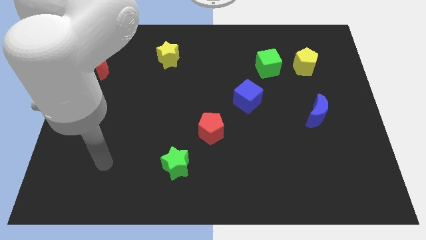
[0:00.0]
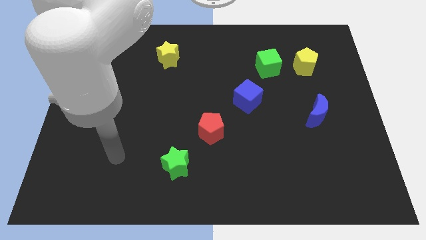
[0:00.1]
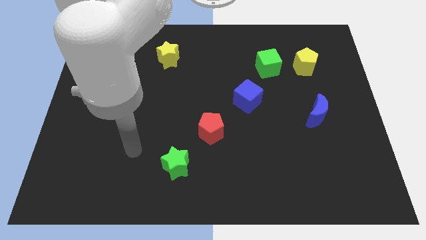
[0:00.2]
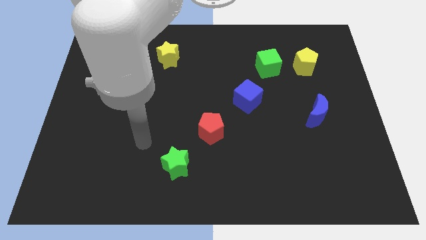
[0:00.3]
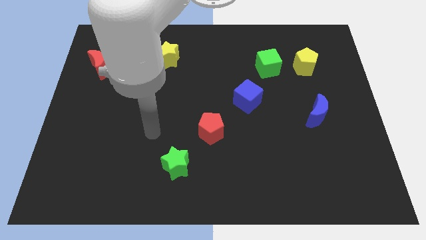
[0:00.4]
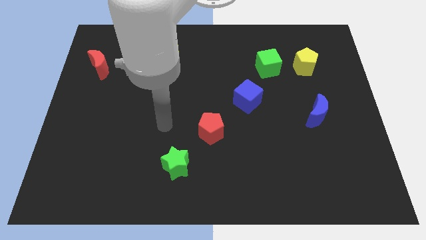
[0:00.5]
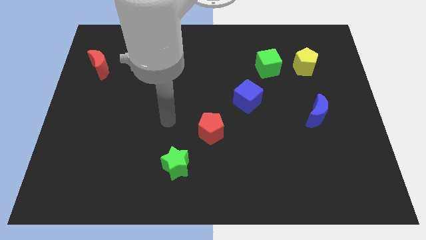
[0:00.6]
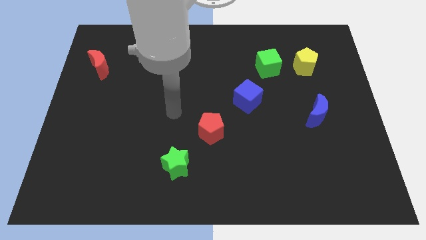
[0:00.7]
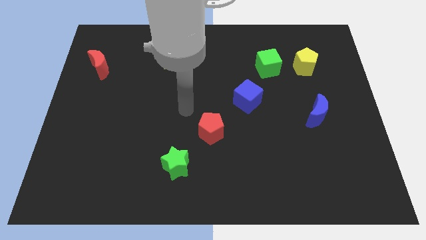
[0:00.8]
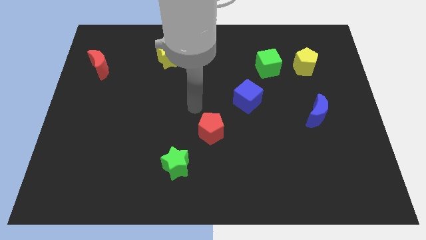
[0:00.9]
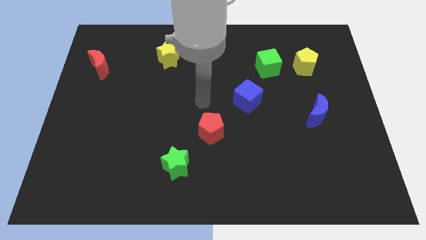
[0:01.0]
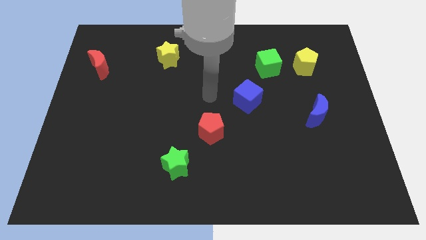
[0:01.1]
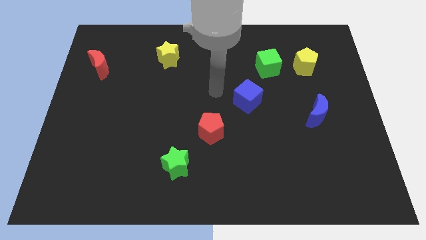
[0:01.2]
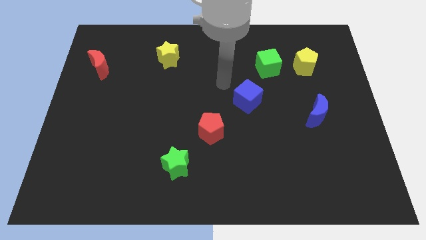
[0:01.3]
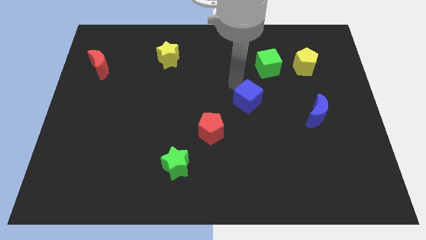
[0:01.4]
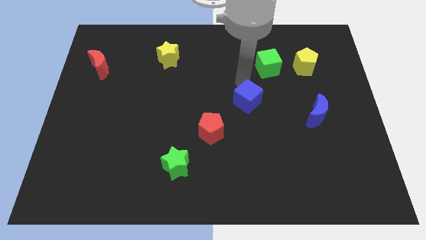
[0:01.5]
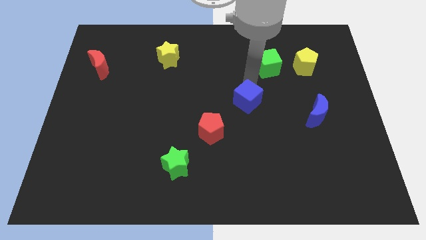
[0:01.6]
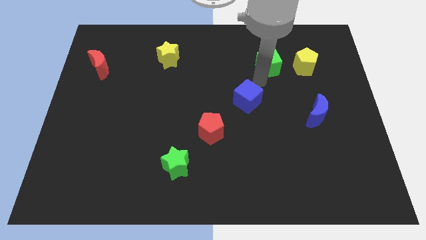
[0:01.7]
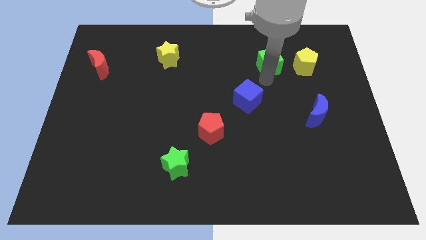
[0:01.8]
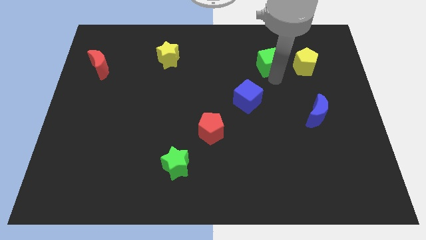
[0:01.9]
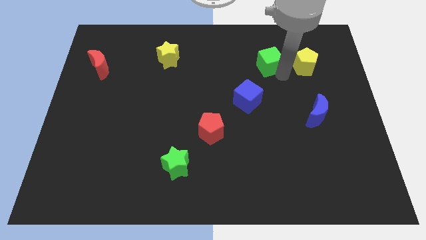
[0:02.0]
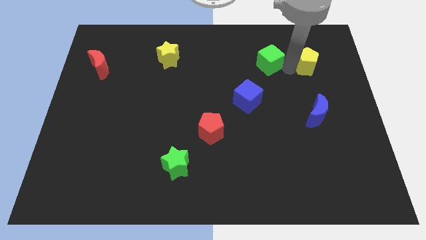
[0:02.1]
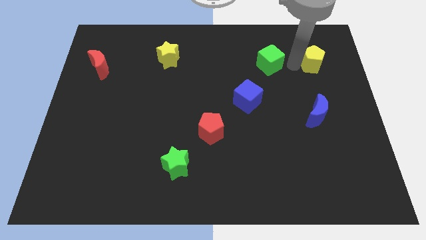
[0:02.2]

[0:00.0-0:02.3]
move the green cube away from the yellow pentagon

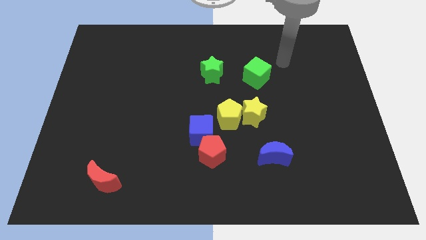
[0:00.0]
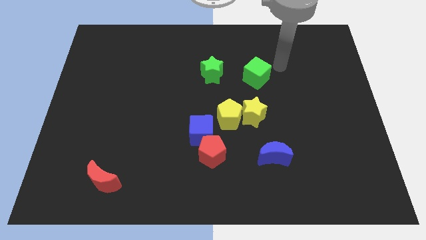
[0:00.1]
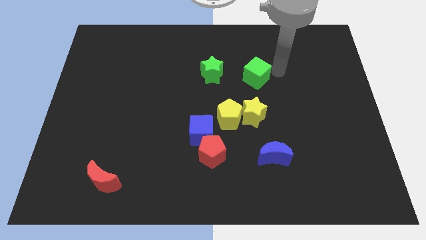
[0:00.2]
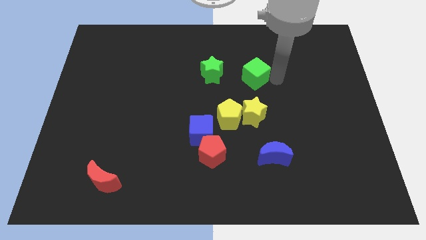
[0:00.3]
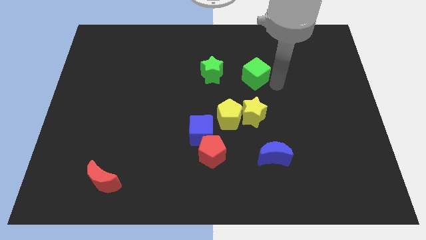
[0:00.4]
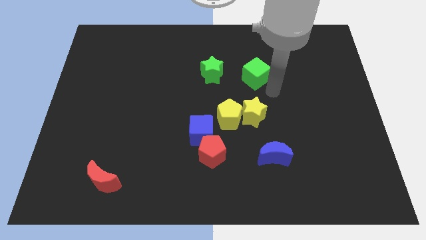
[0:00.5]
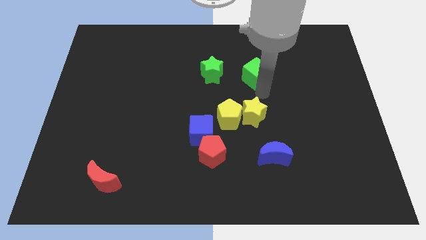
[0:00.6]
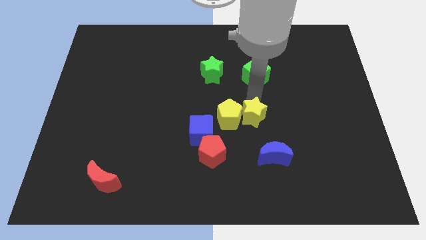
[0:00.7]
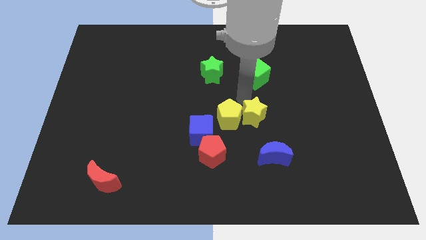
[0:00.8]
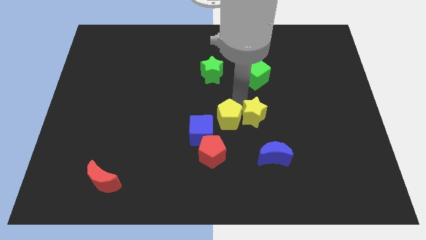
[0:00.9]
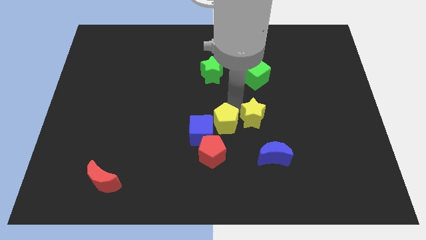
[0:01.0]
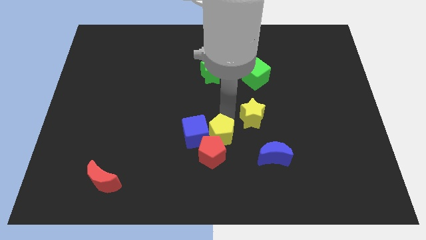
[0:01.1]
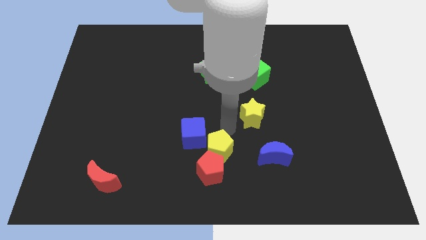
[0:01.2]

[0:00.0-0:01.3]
separate the yellow star from the yellow pentagon

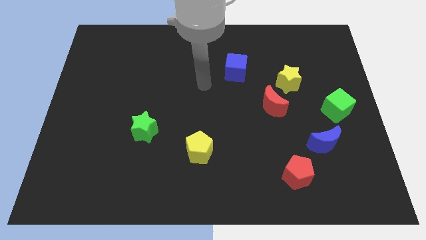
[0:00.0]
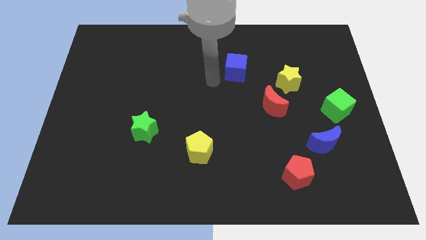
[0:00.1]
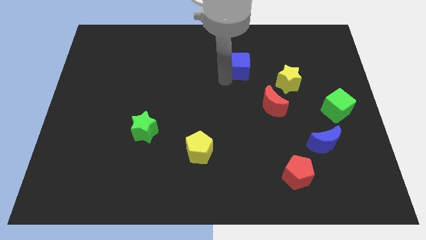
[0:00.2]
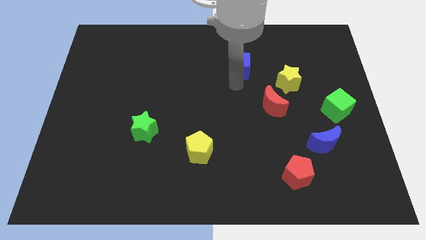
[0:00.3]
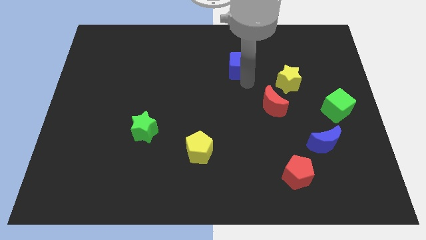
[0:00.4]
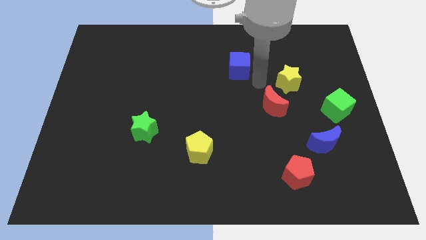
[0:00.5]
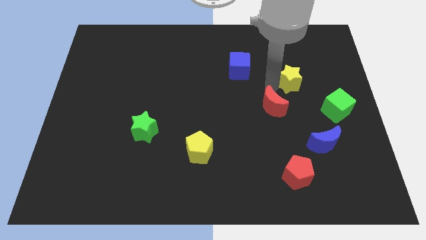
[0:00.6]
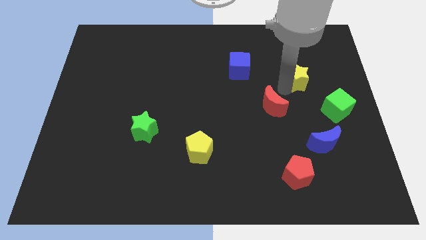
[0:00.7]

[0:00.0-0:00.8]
separate the red moon from the yellow star

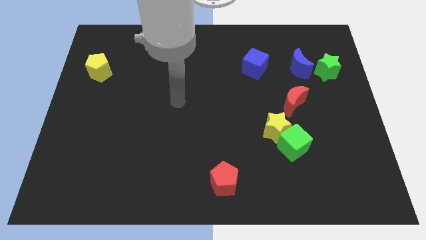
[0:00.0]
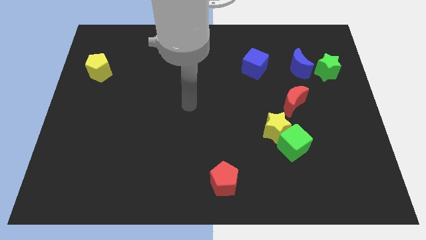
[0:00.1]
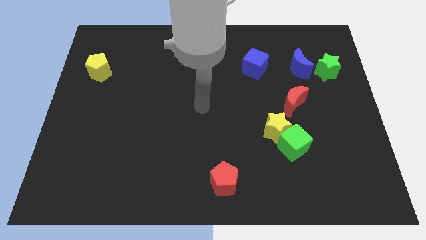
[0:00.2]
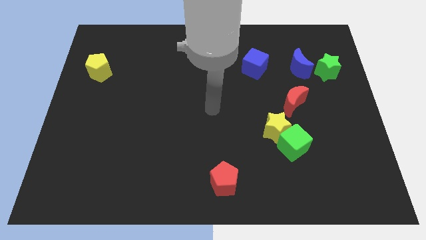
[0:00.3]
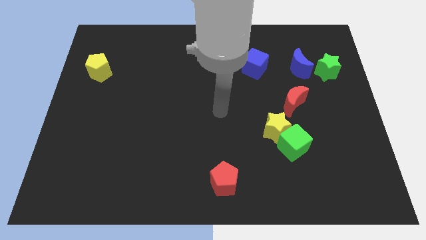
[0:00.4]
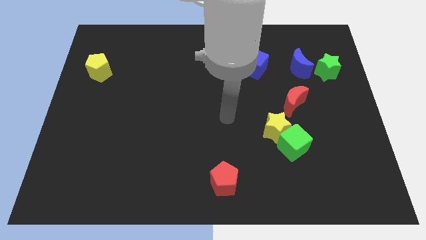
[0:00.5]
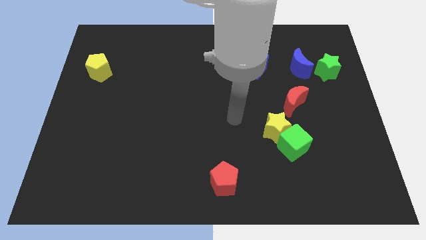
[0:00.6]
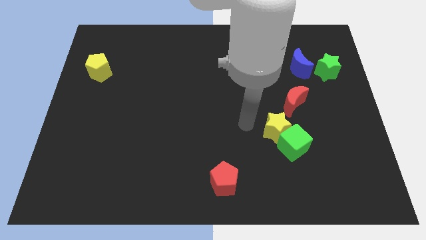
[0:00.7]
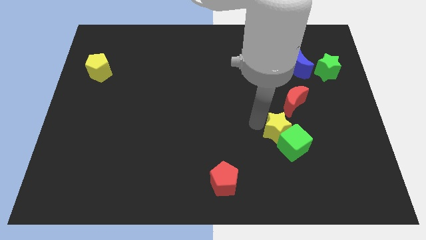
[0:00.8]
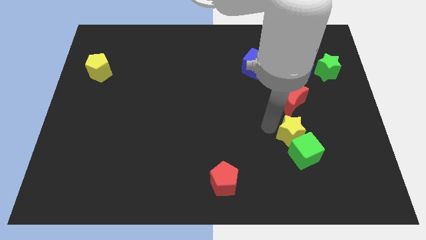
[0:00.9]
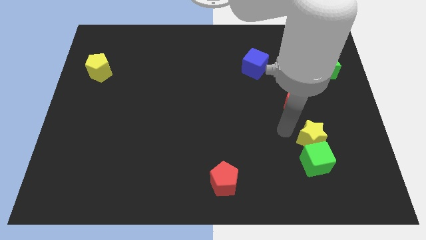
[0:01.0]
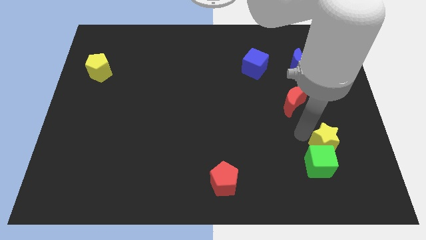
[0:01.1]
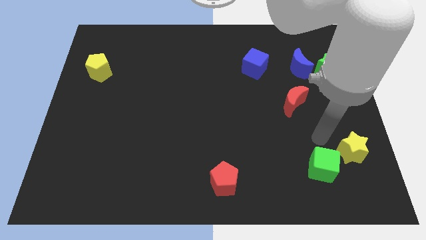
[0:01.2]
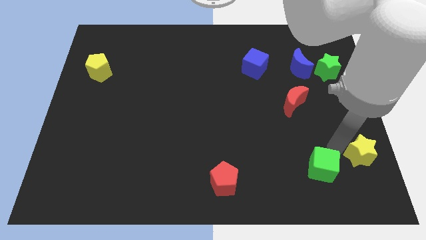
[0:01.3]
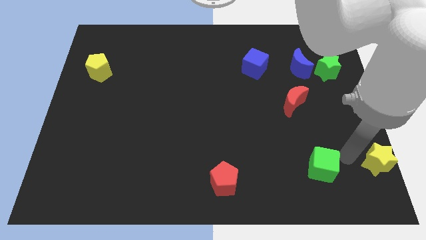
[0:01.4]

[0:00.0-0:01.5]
pull the green cube apart from the yellow star

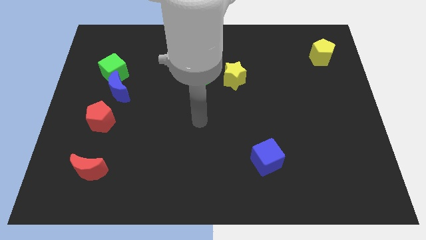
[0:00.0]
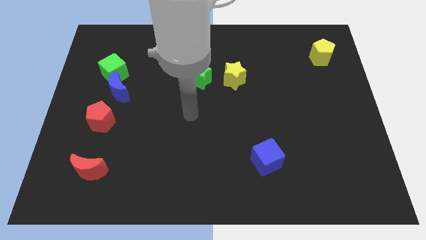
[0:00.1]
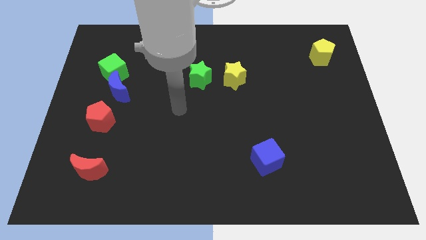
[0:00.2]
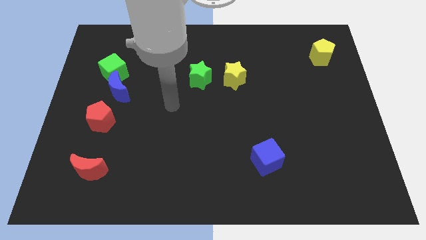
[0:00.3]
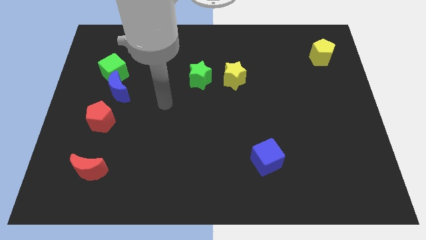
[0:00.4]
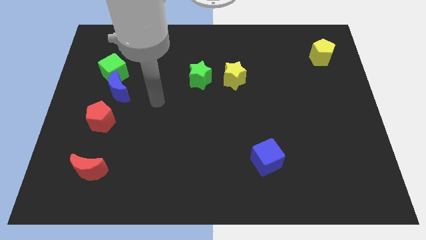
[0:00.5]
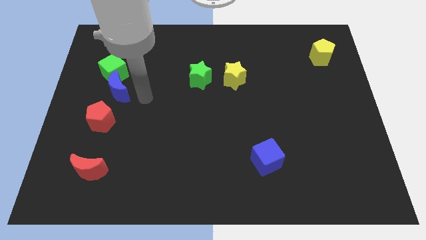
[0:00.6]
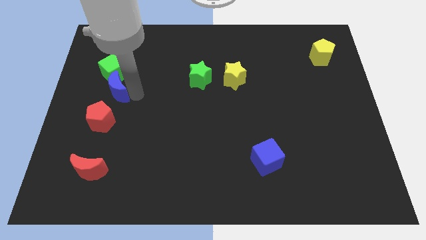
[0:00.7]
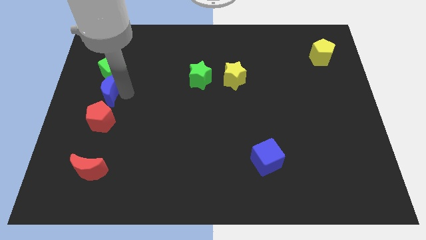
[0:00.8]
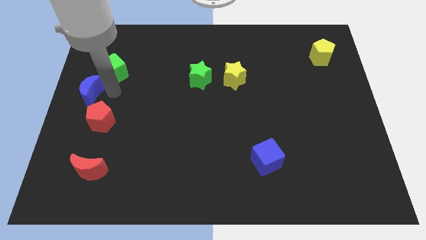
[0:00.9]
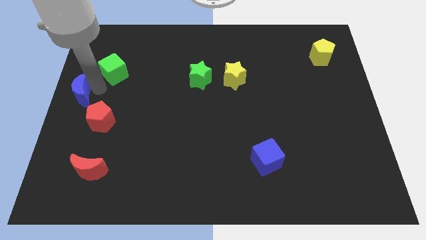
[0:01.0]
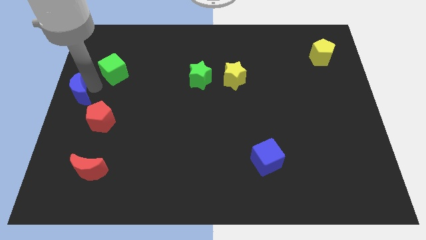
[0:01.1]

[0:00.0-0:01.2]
pull the green cube apart from the blue moon

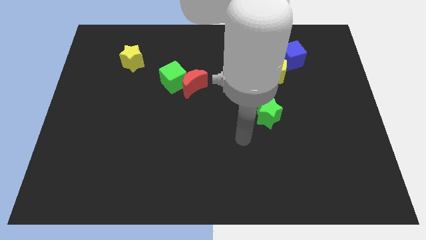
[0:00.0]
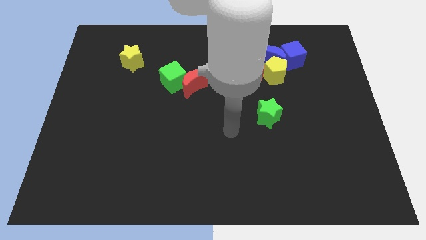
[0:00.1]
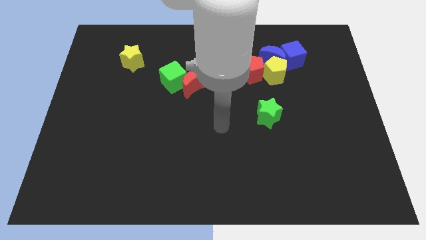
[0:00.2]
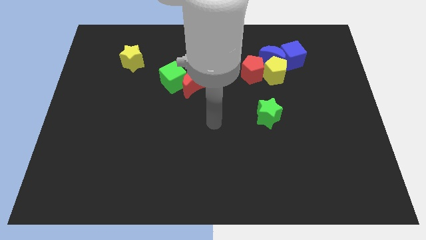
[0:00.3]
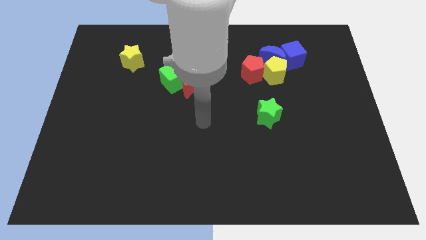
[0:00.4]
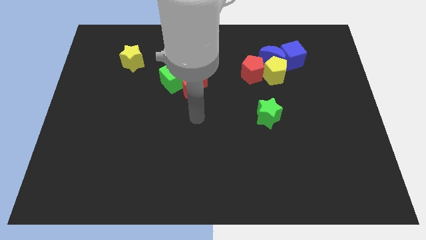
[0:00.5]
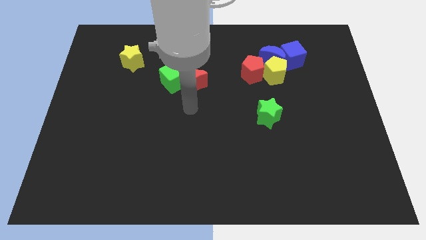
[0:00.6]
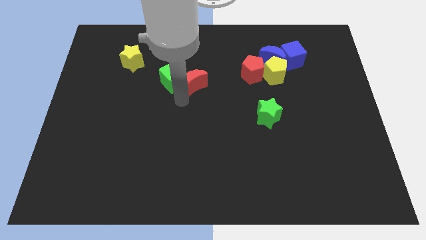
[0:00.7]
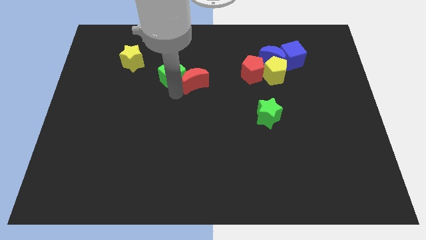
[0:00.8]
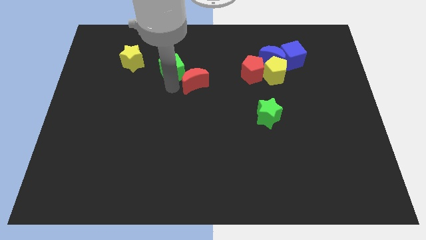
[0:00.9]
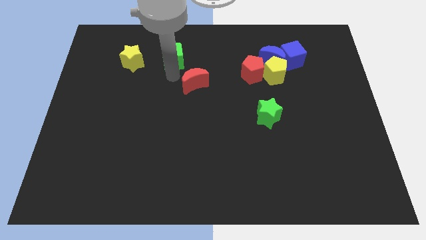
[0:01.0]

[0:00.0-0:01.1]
separate the red moon from the green cube

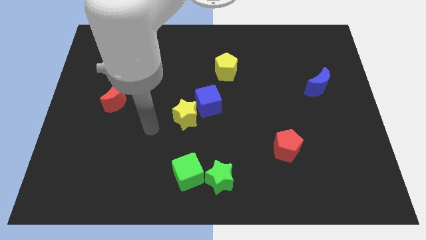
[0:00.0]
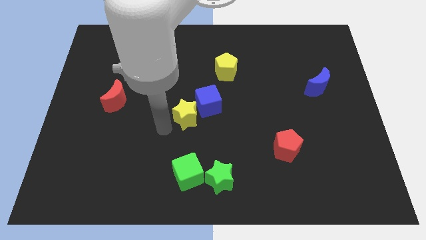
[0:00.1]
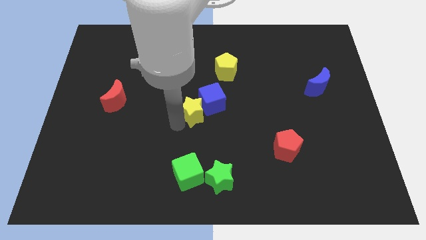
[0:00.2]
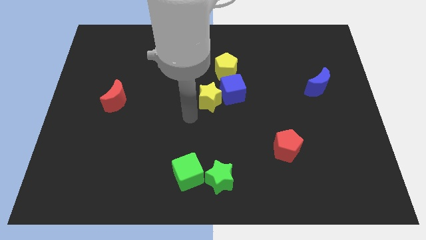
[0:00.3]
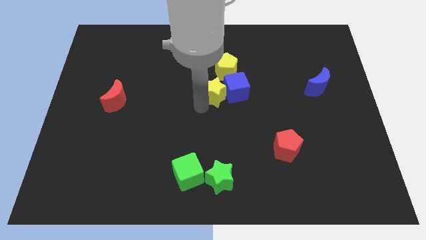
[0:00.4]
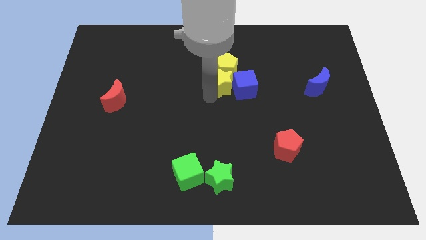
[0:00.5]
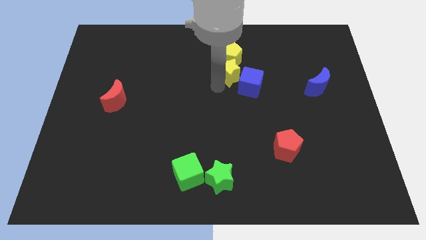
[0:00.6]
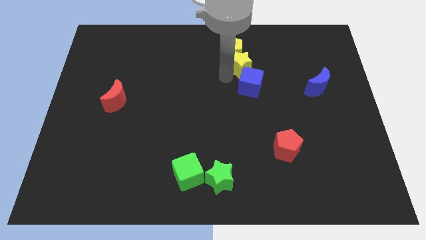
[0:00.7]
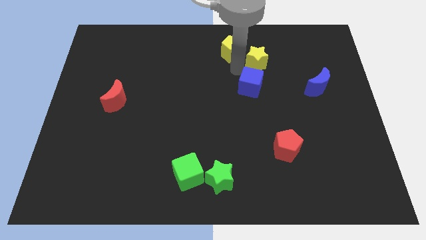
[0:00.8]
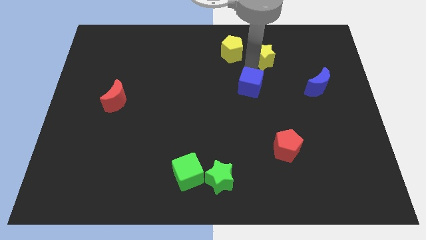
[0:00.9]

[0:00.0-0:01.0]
separate the blue cube from the yellow star
